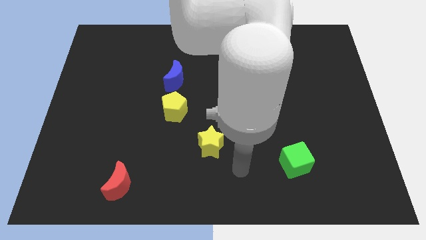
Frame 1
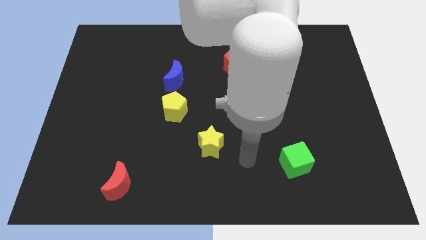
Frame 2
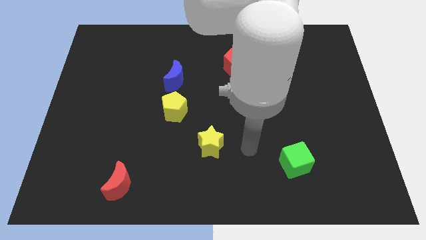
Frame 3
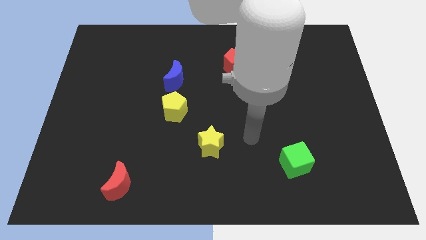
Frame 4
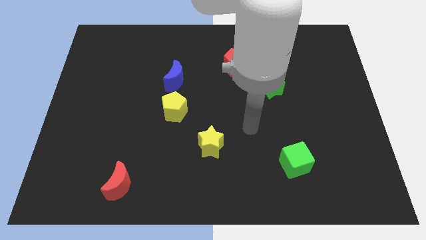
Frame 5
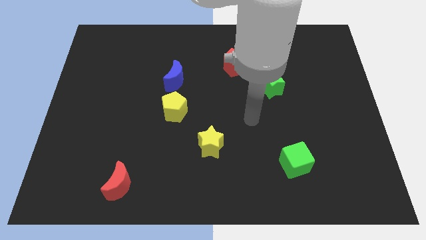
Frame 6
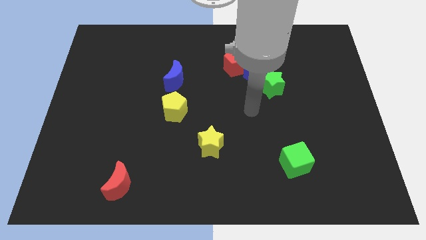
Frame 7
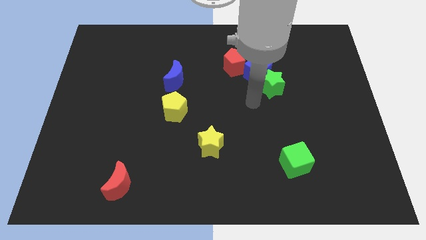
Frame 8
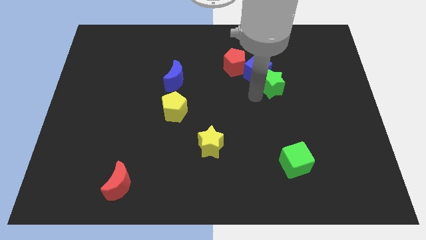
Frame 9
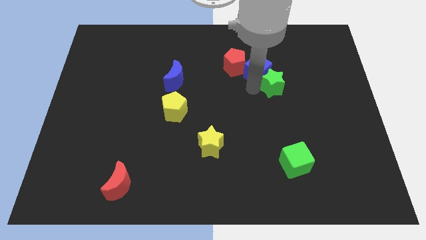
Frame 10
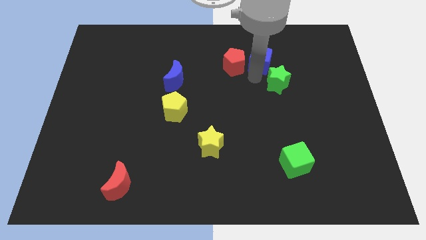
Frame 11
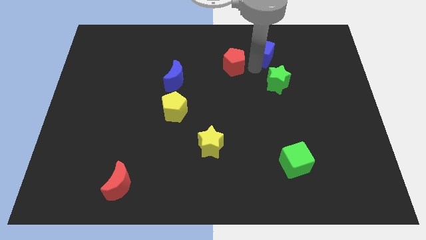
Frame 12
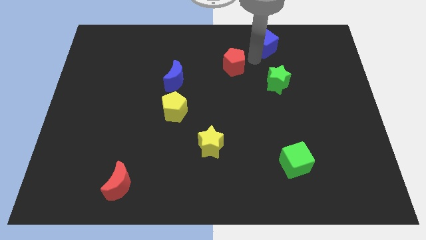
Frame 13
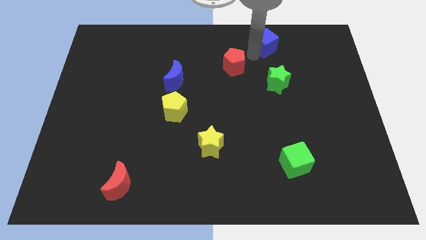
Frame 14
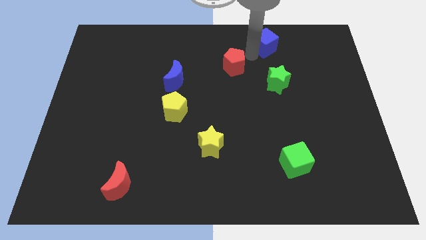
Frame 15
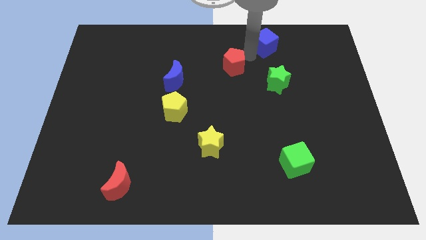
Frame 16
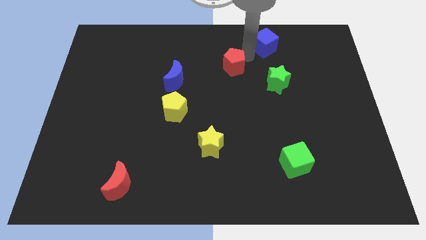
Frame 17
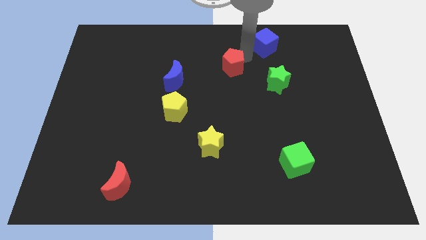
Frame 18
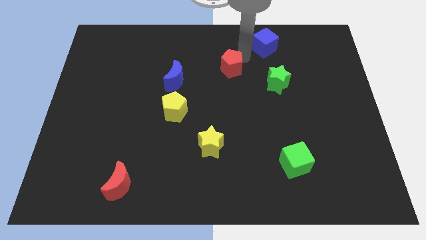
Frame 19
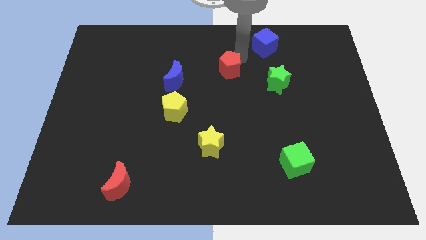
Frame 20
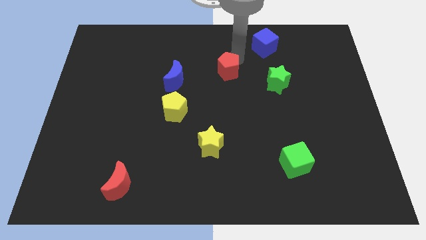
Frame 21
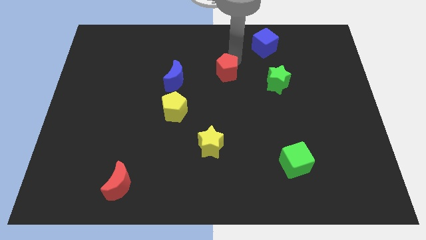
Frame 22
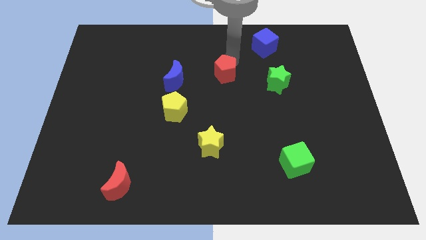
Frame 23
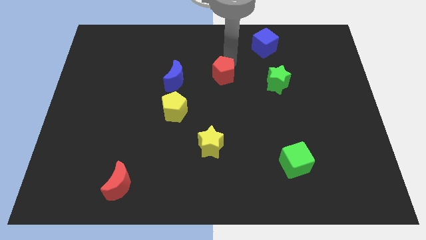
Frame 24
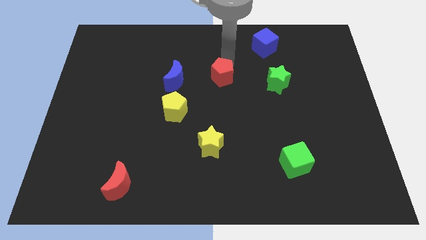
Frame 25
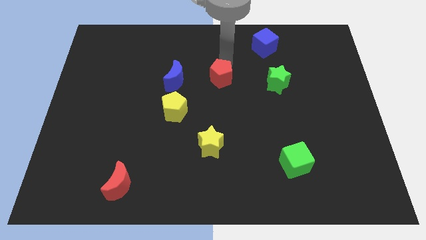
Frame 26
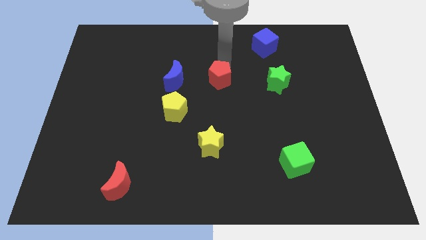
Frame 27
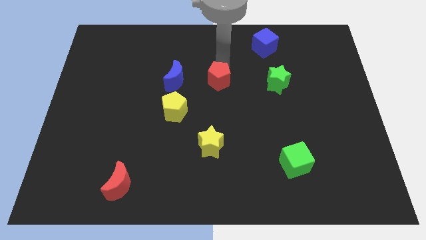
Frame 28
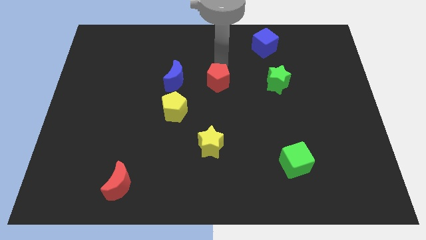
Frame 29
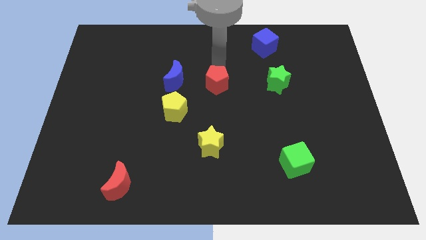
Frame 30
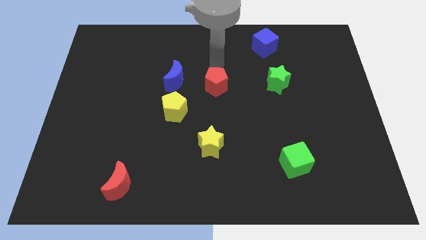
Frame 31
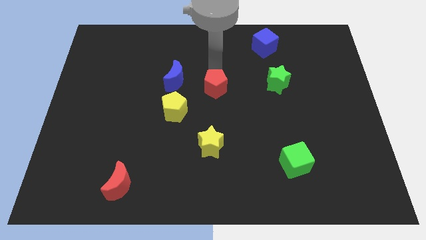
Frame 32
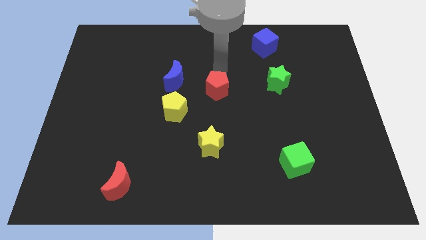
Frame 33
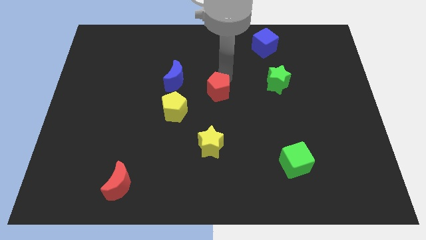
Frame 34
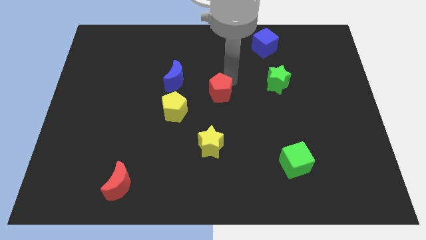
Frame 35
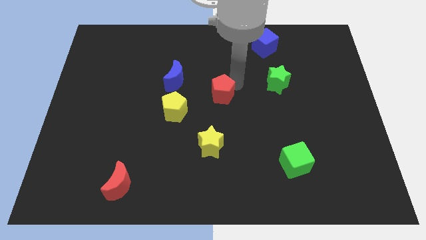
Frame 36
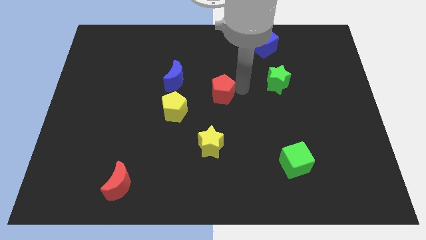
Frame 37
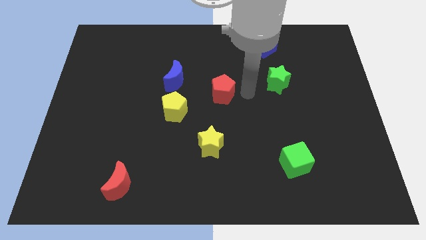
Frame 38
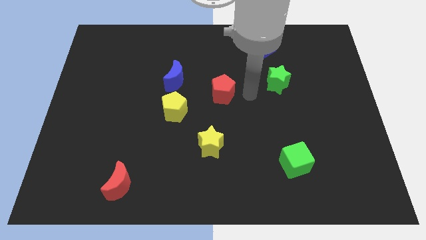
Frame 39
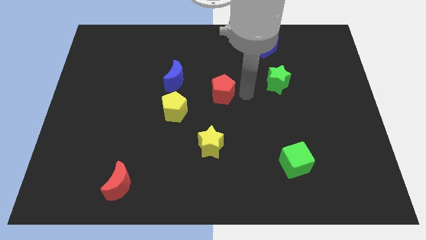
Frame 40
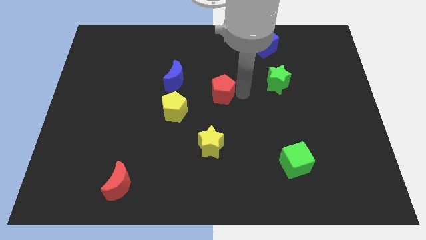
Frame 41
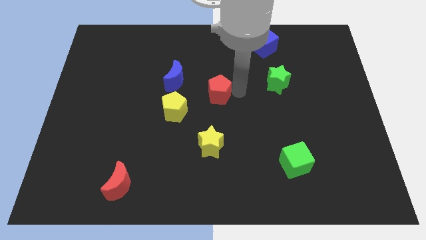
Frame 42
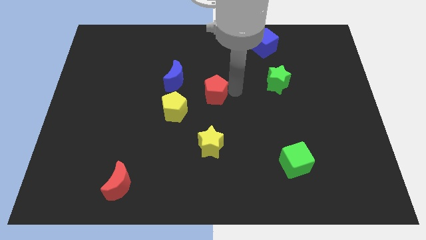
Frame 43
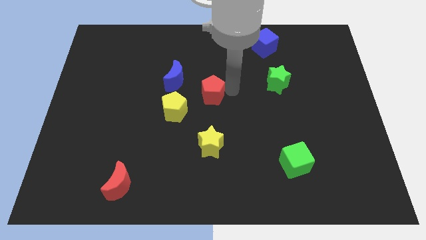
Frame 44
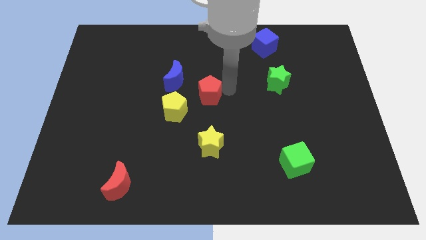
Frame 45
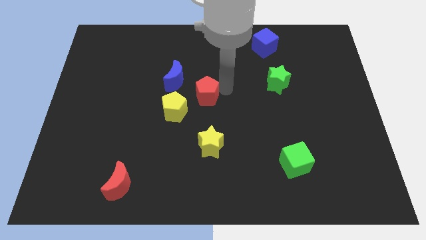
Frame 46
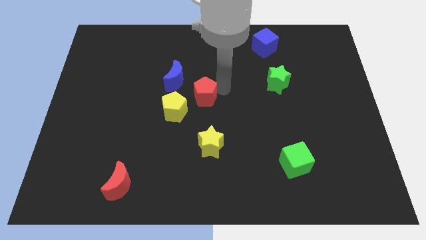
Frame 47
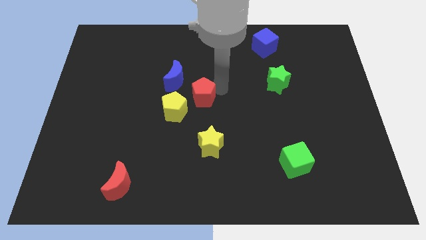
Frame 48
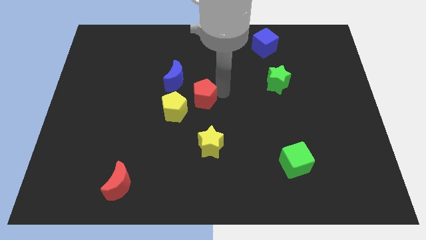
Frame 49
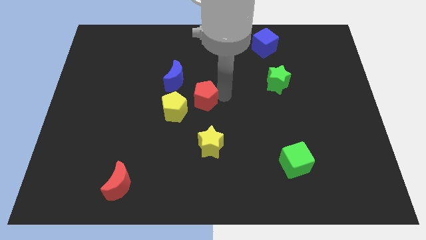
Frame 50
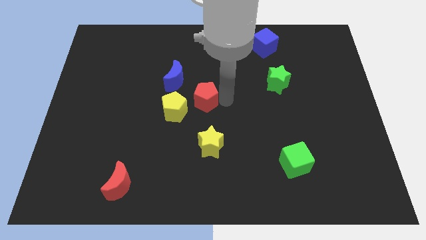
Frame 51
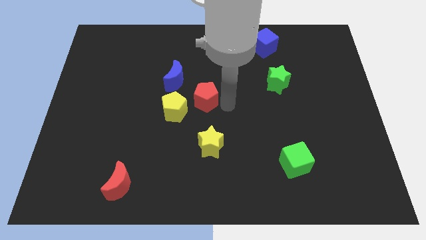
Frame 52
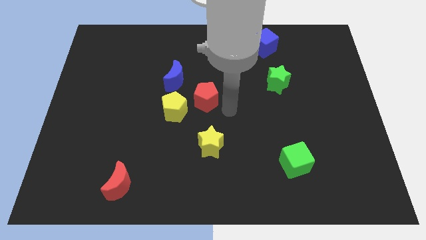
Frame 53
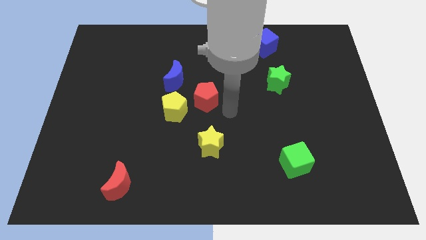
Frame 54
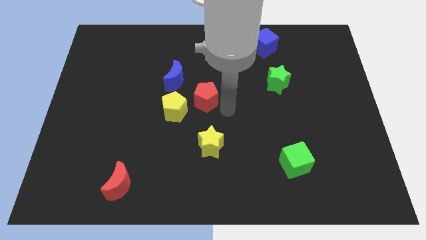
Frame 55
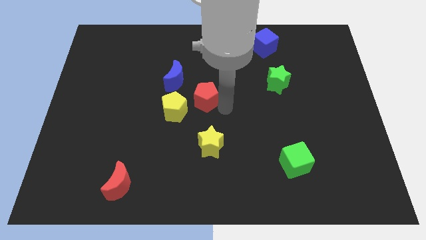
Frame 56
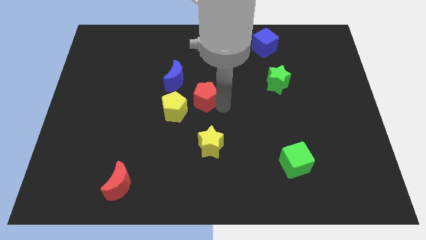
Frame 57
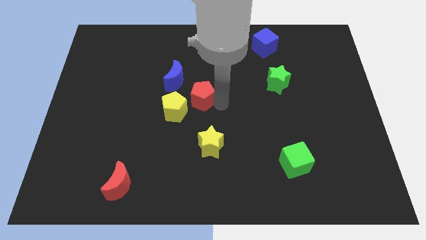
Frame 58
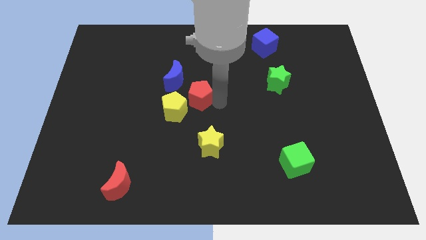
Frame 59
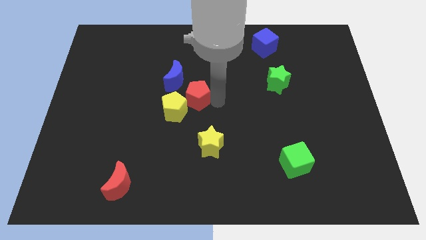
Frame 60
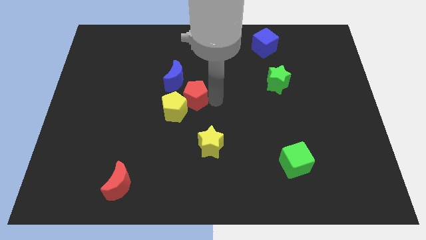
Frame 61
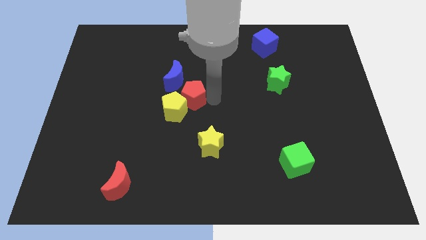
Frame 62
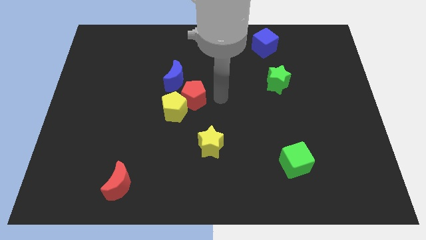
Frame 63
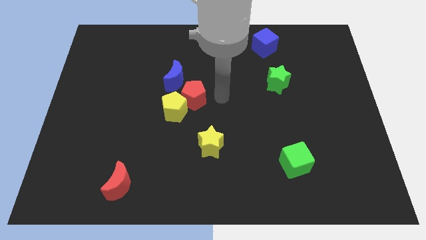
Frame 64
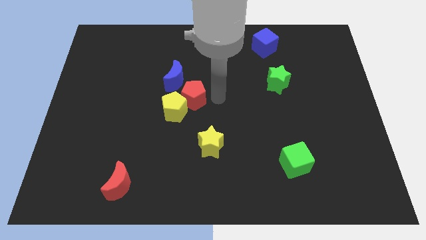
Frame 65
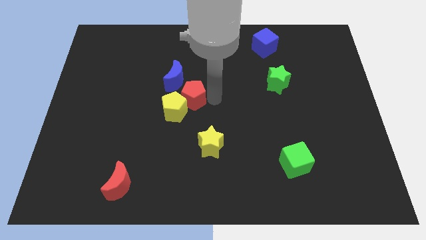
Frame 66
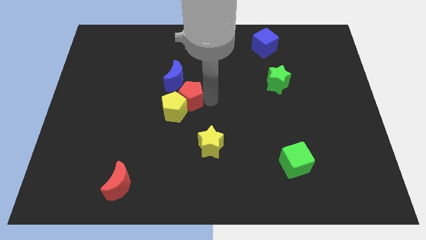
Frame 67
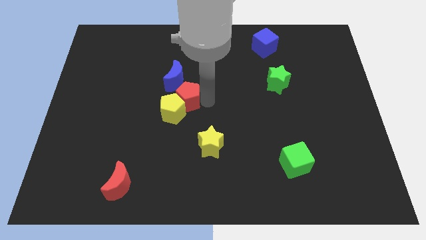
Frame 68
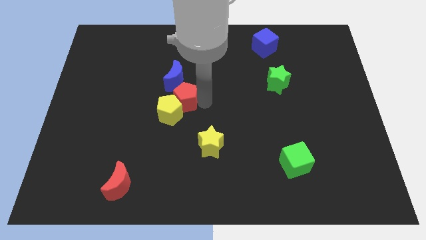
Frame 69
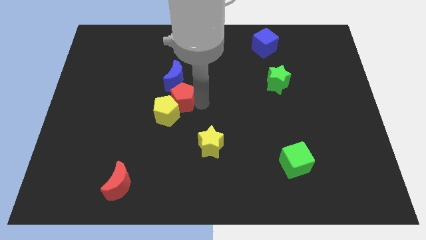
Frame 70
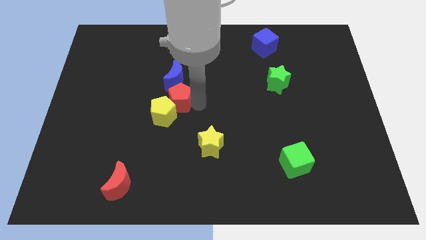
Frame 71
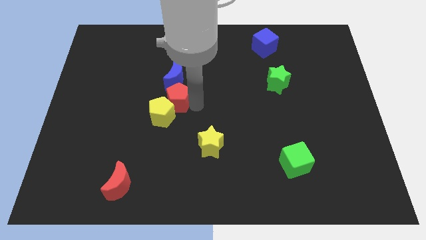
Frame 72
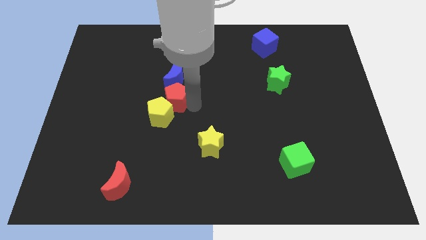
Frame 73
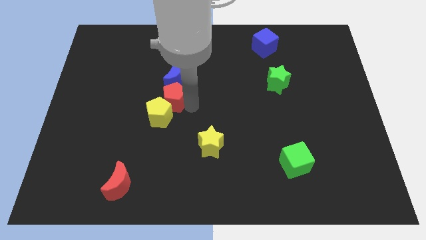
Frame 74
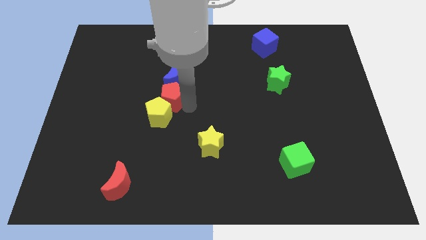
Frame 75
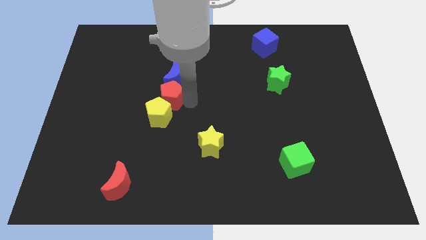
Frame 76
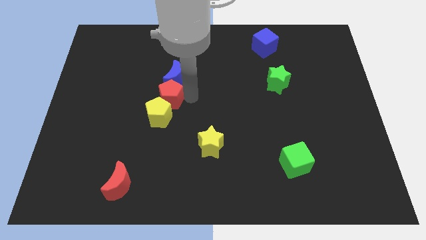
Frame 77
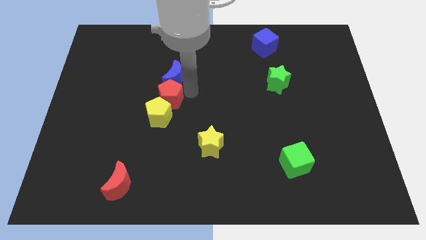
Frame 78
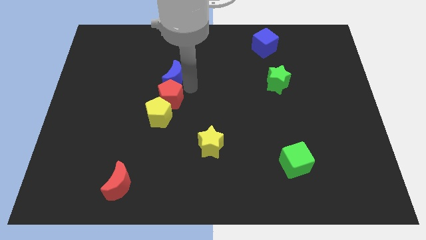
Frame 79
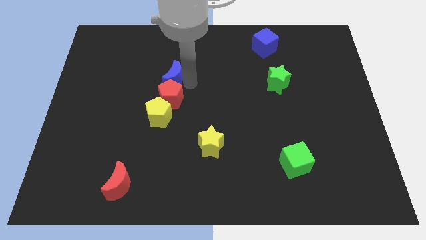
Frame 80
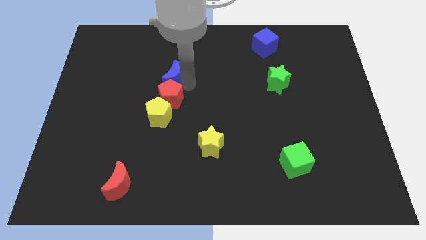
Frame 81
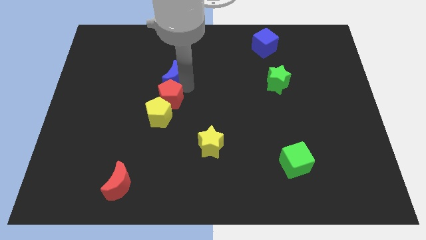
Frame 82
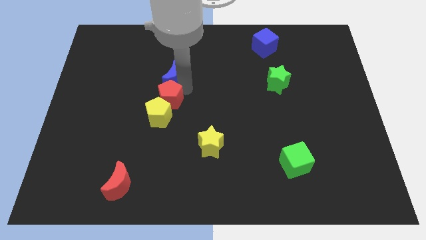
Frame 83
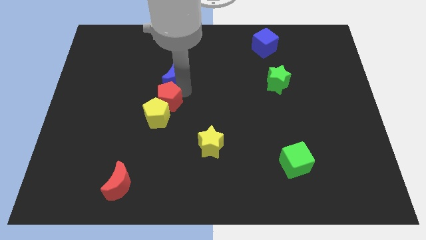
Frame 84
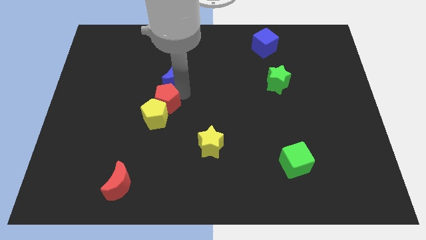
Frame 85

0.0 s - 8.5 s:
push the red pentagon downwards and then to the left
